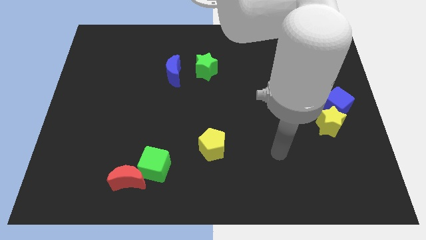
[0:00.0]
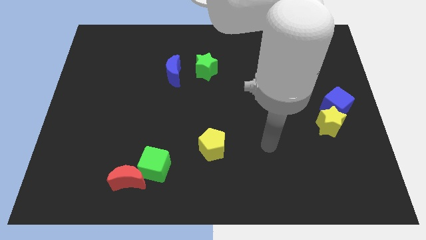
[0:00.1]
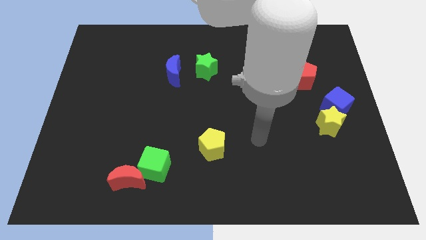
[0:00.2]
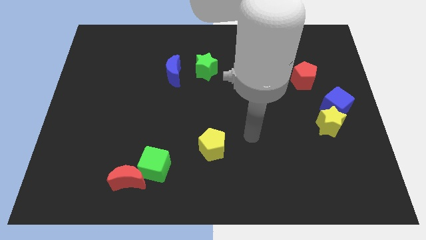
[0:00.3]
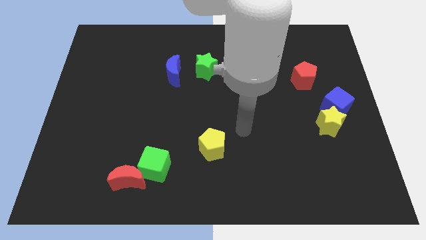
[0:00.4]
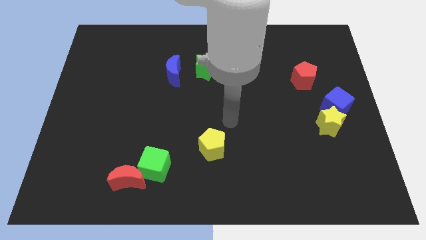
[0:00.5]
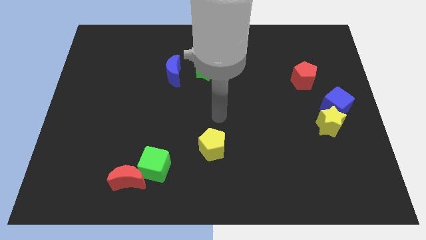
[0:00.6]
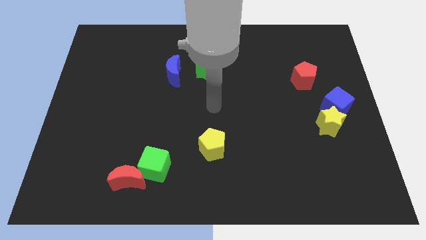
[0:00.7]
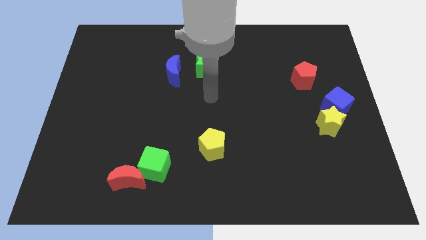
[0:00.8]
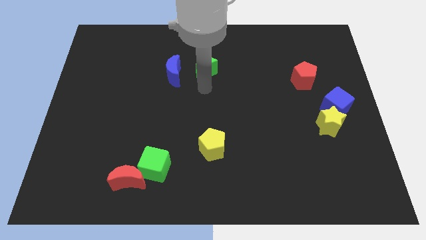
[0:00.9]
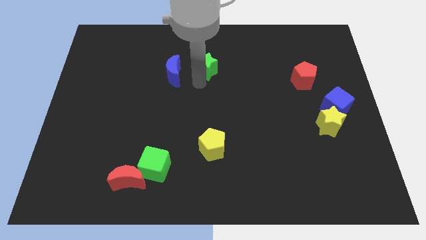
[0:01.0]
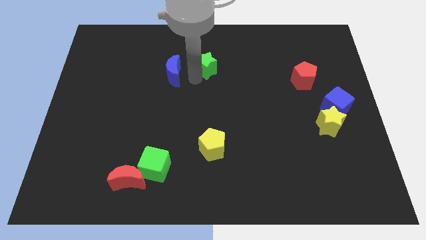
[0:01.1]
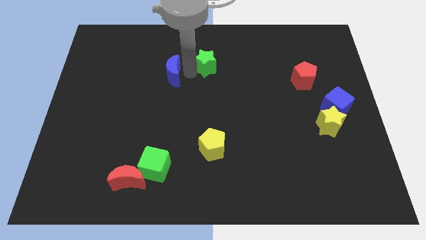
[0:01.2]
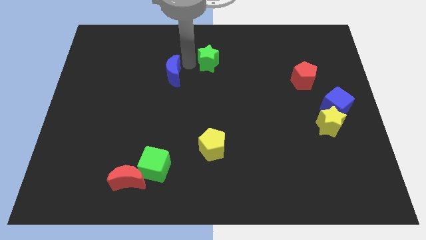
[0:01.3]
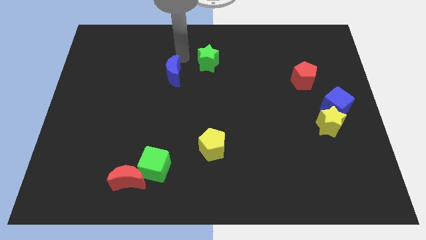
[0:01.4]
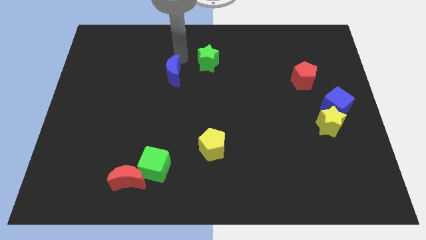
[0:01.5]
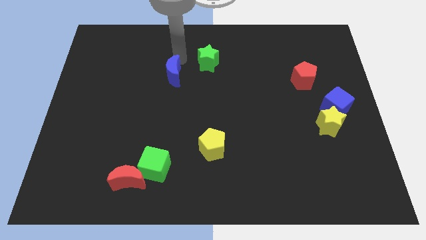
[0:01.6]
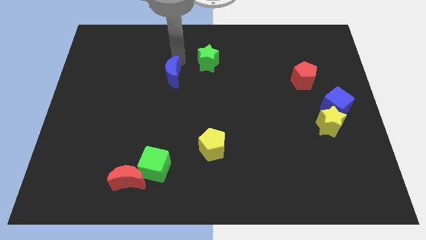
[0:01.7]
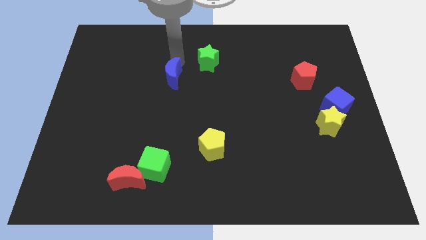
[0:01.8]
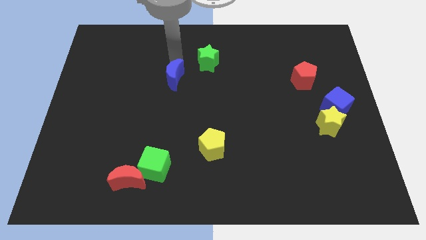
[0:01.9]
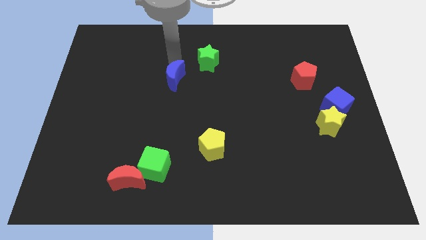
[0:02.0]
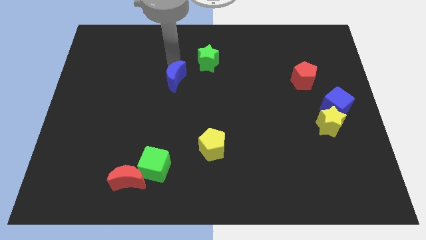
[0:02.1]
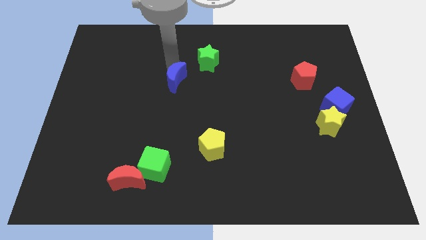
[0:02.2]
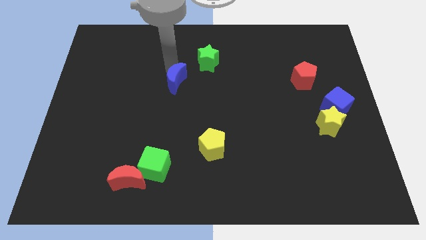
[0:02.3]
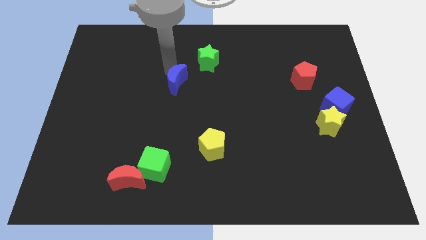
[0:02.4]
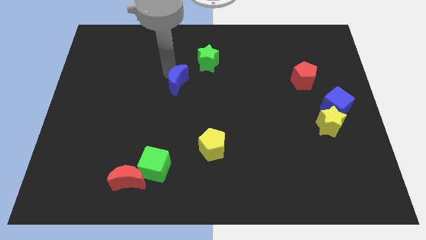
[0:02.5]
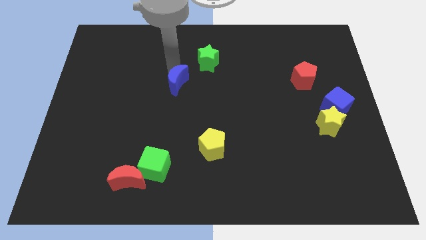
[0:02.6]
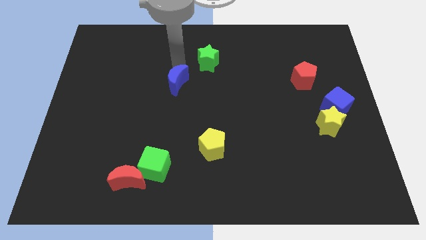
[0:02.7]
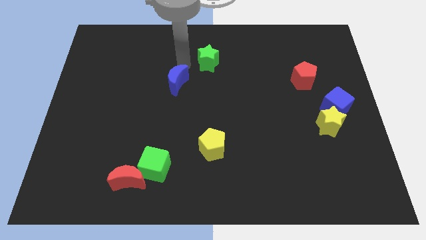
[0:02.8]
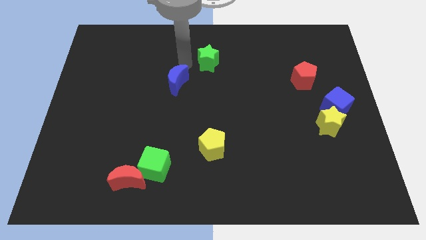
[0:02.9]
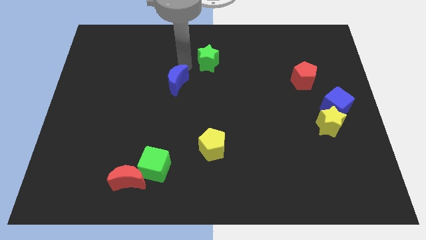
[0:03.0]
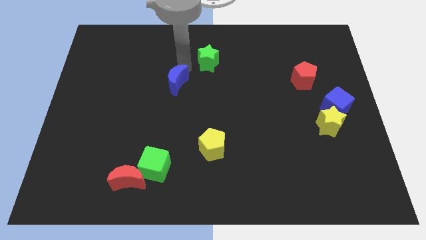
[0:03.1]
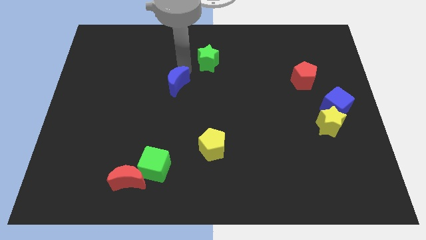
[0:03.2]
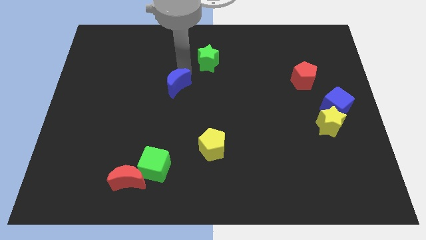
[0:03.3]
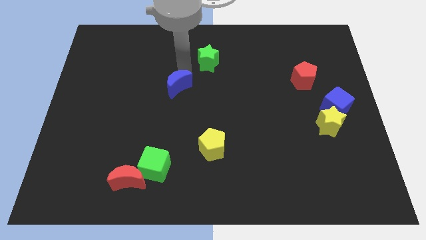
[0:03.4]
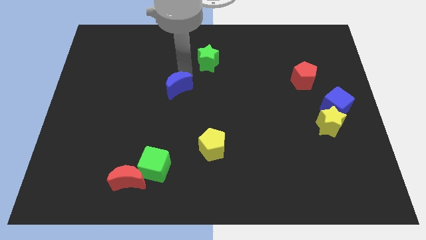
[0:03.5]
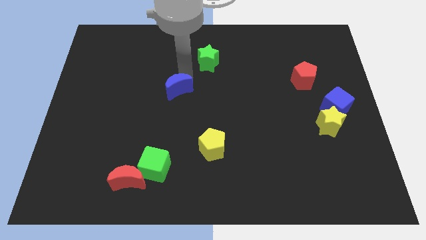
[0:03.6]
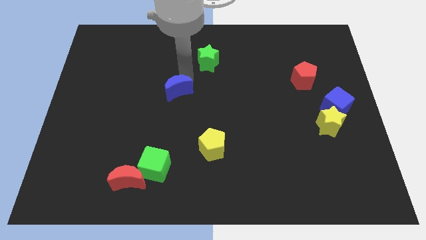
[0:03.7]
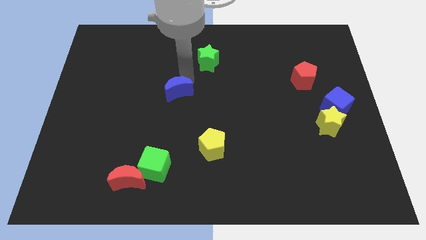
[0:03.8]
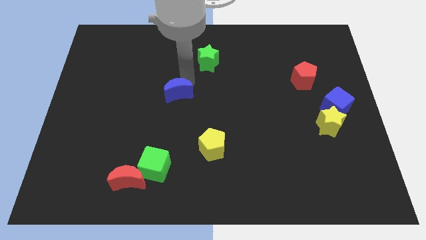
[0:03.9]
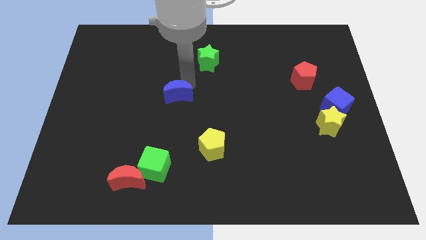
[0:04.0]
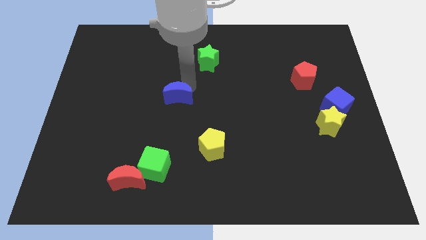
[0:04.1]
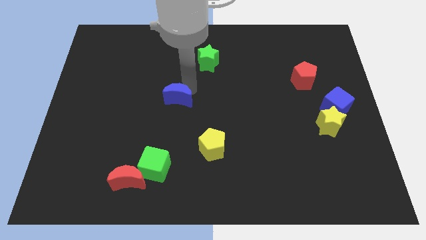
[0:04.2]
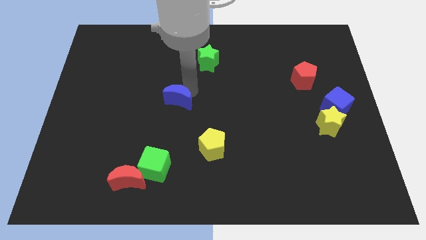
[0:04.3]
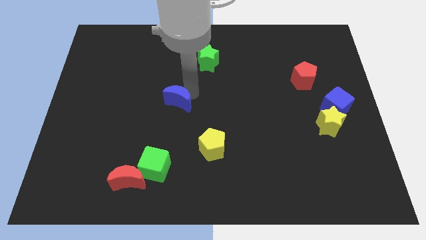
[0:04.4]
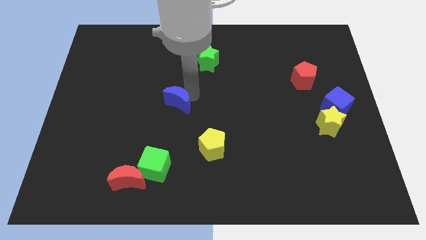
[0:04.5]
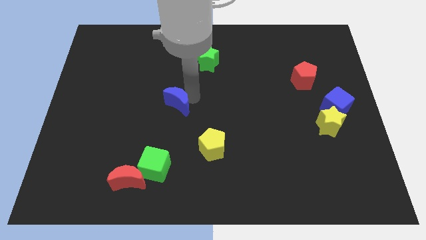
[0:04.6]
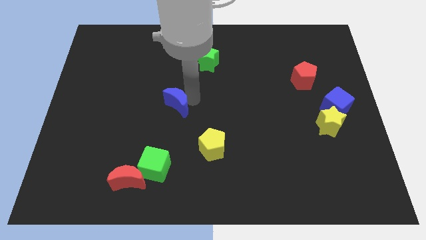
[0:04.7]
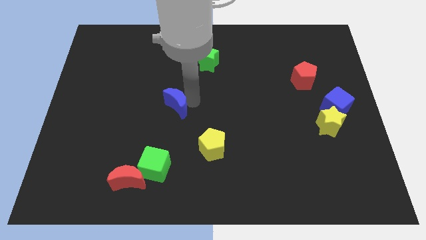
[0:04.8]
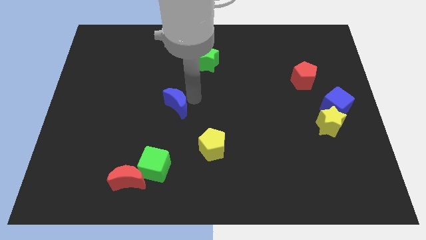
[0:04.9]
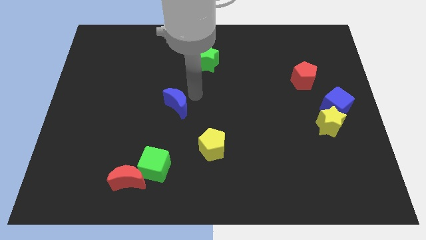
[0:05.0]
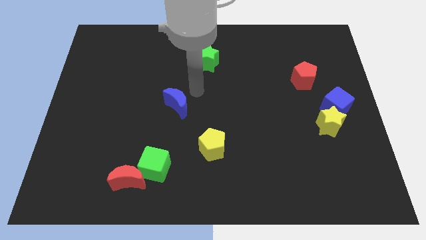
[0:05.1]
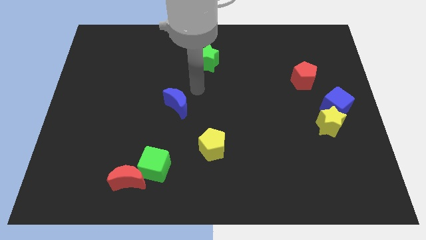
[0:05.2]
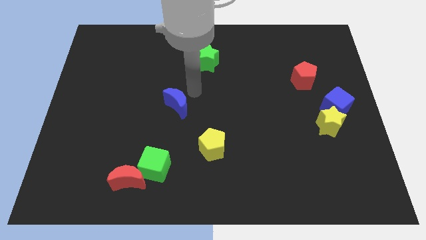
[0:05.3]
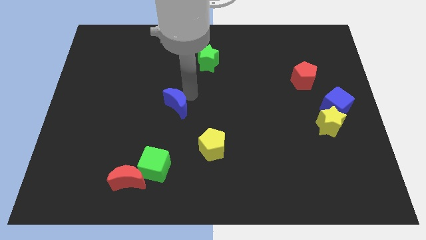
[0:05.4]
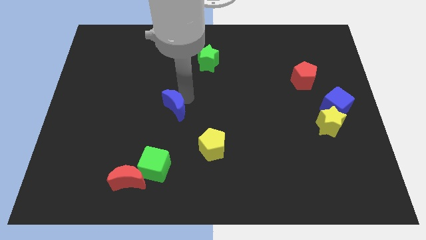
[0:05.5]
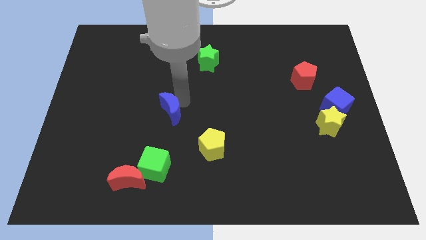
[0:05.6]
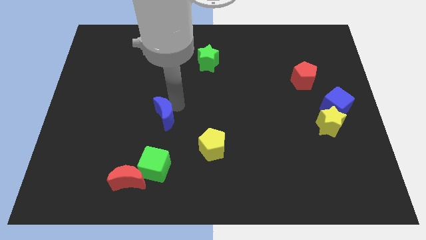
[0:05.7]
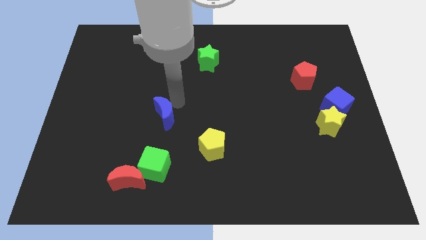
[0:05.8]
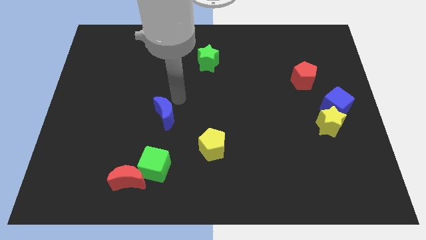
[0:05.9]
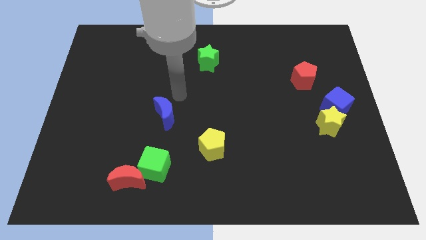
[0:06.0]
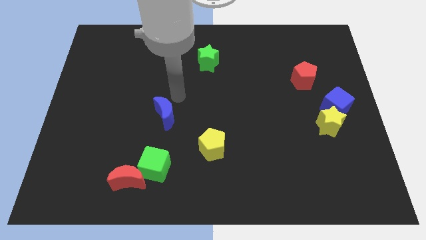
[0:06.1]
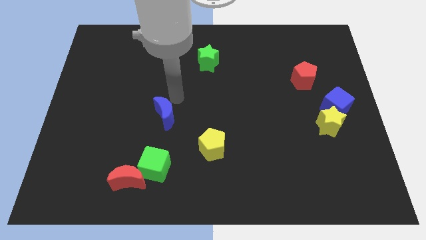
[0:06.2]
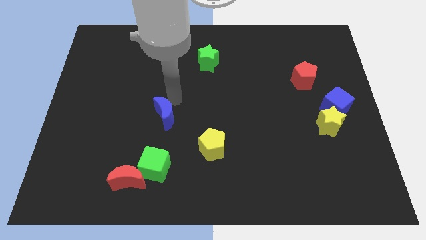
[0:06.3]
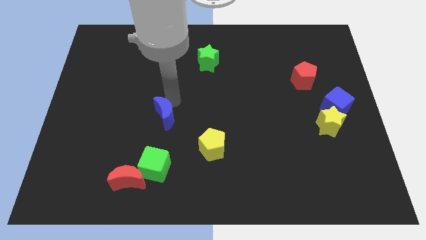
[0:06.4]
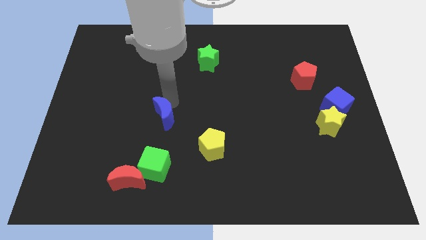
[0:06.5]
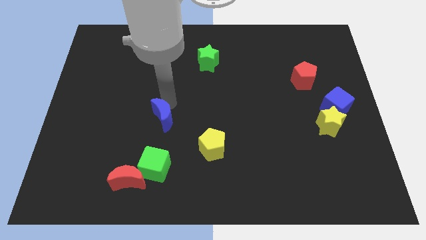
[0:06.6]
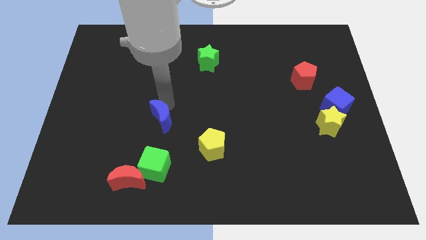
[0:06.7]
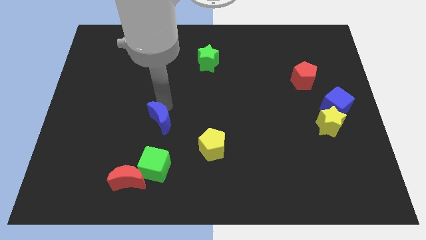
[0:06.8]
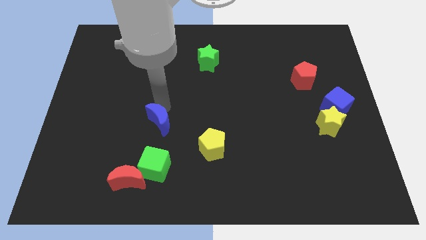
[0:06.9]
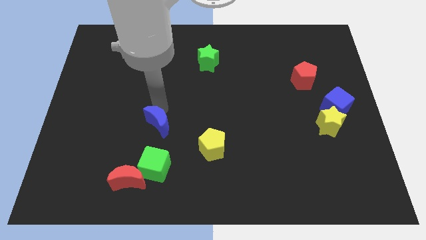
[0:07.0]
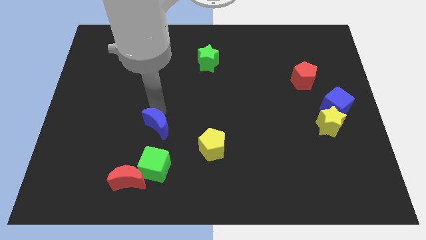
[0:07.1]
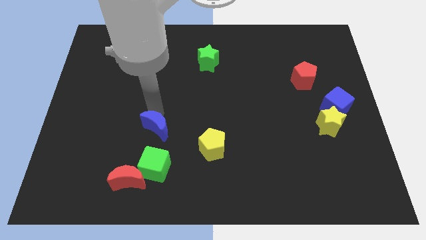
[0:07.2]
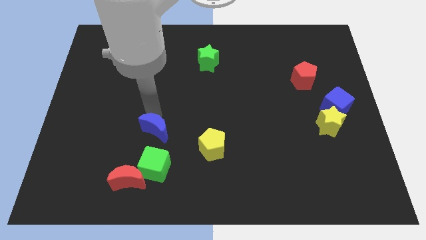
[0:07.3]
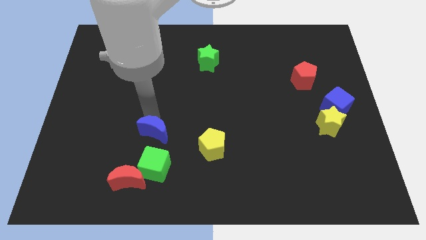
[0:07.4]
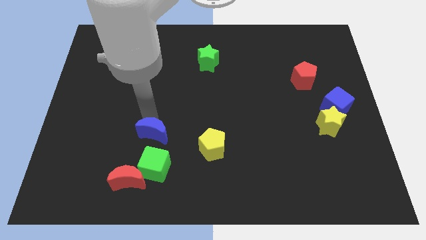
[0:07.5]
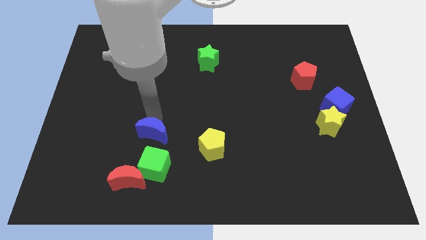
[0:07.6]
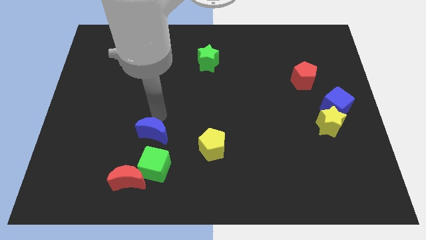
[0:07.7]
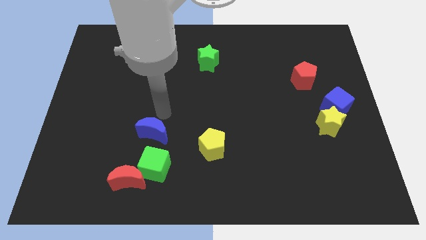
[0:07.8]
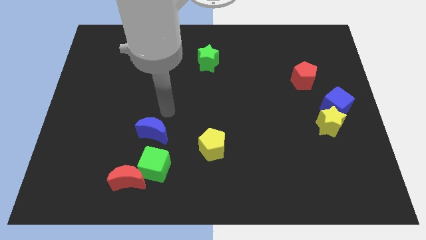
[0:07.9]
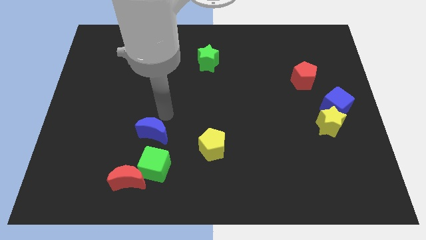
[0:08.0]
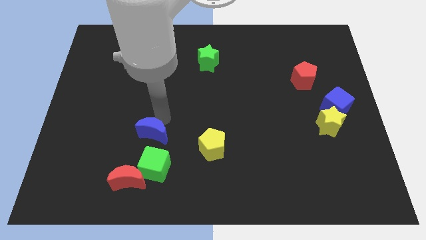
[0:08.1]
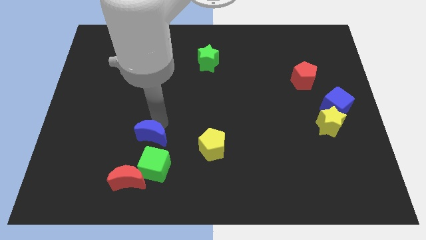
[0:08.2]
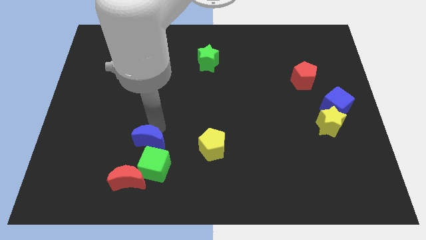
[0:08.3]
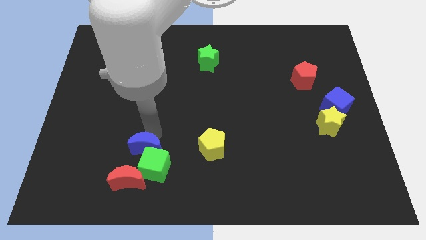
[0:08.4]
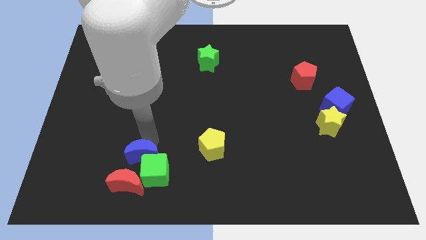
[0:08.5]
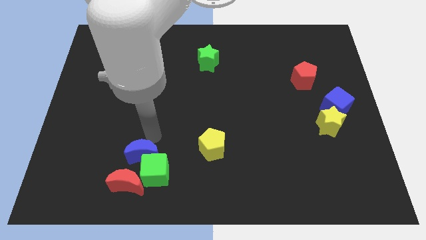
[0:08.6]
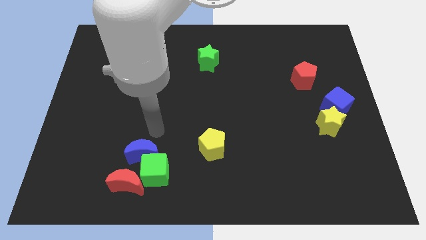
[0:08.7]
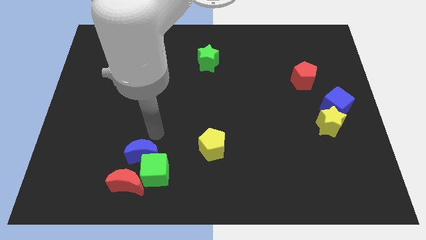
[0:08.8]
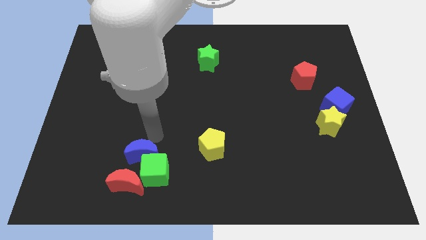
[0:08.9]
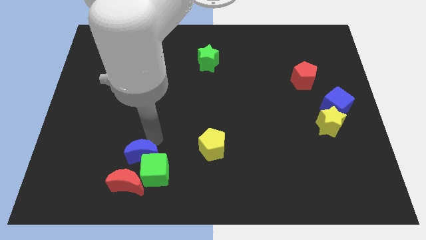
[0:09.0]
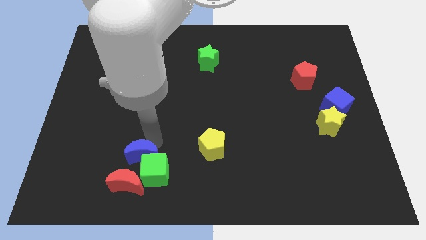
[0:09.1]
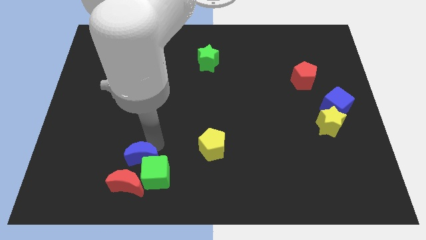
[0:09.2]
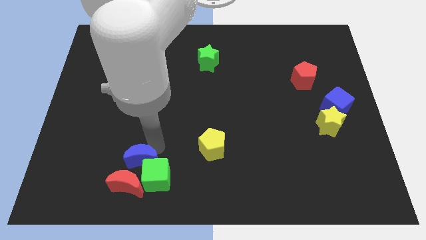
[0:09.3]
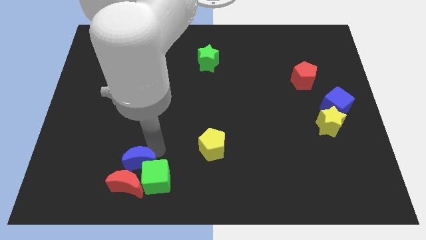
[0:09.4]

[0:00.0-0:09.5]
slide the blue moon towards the red moon
